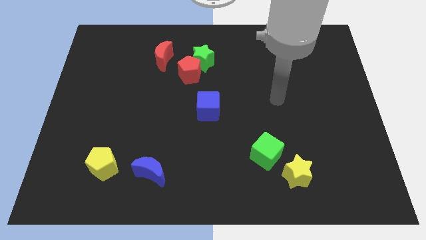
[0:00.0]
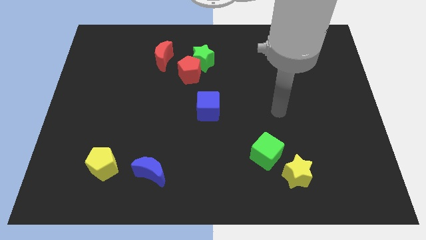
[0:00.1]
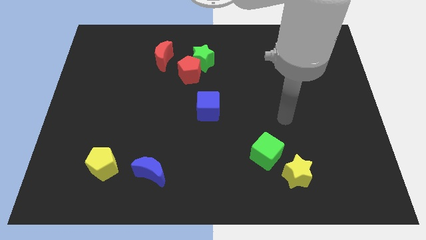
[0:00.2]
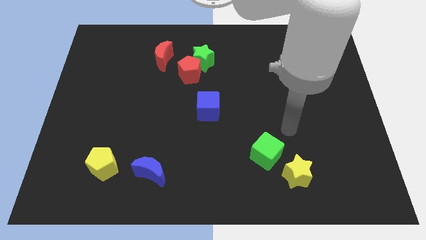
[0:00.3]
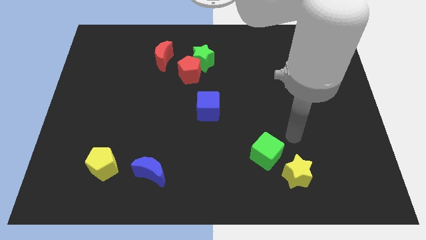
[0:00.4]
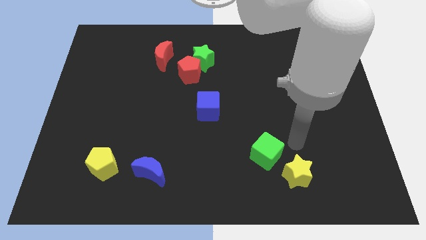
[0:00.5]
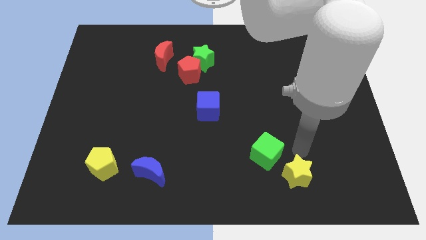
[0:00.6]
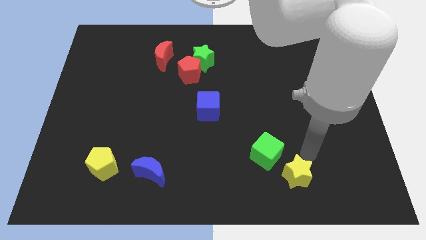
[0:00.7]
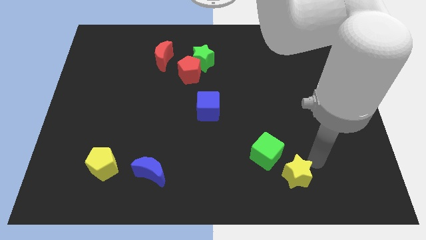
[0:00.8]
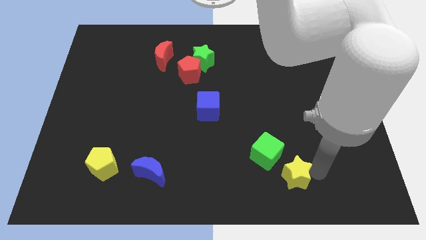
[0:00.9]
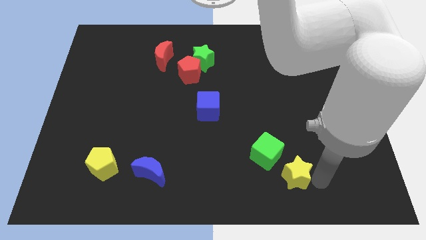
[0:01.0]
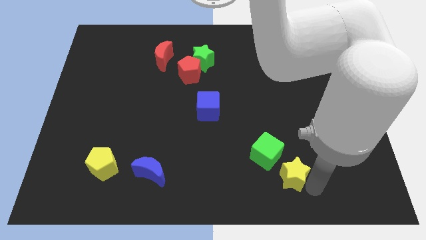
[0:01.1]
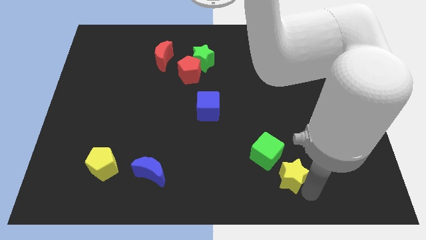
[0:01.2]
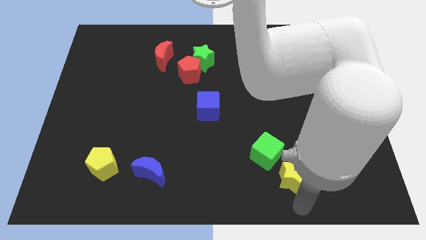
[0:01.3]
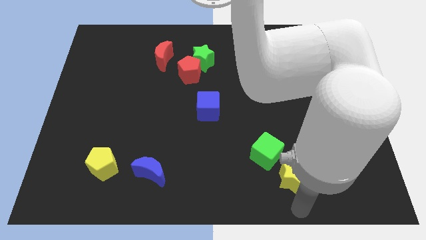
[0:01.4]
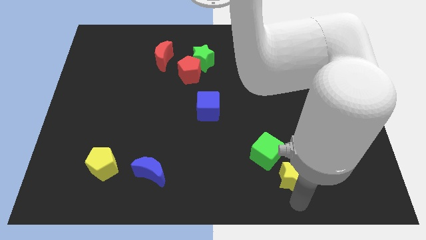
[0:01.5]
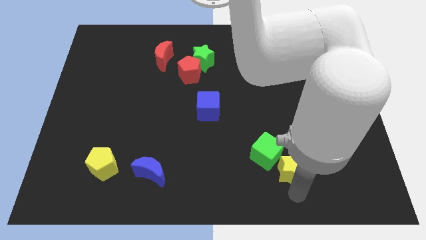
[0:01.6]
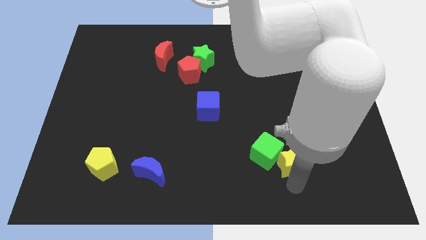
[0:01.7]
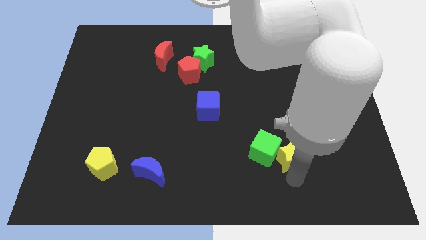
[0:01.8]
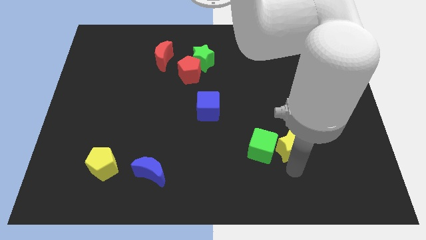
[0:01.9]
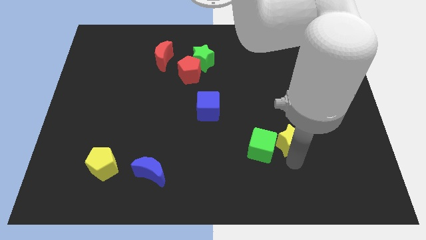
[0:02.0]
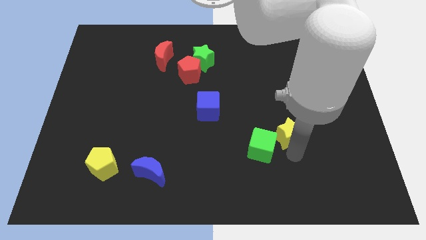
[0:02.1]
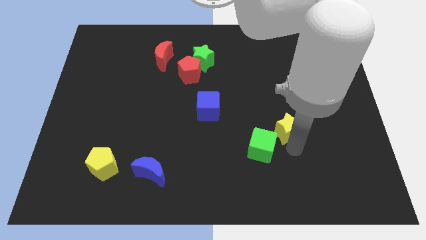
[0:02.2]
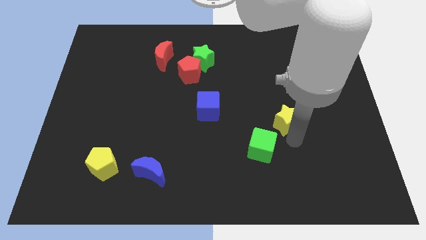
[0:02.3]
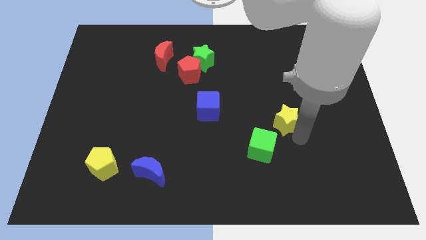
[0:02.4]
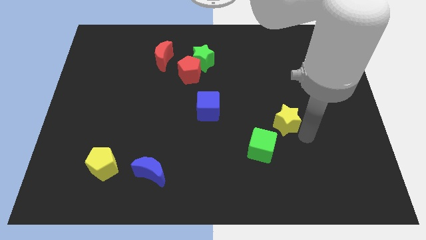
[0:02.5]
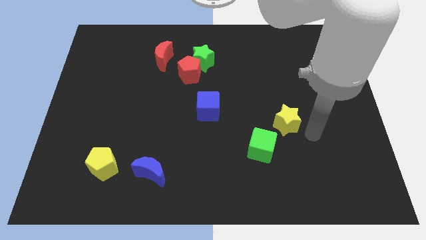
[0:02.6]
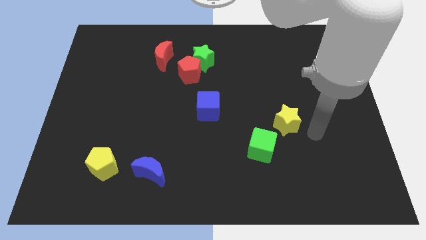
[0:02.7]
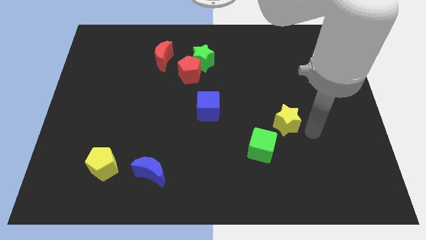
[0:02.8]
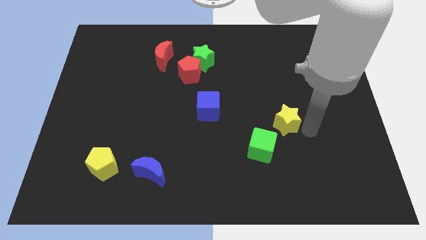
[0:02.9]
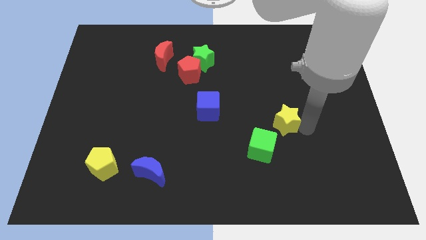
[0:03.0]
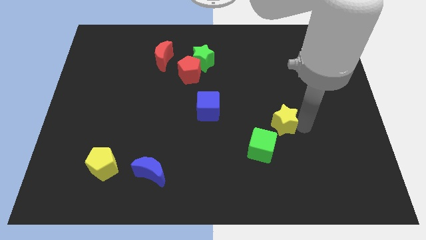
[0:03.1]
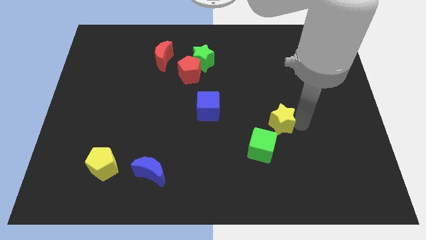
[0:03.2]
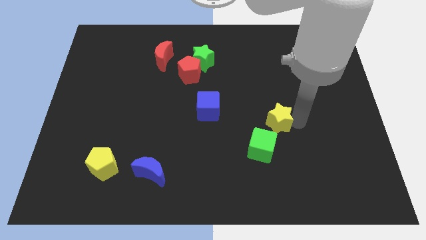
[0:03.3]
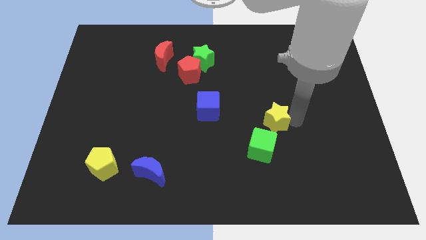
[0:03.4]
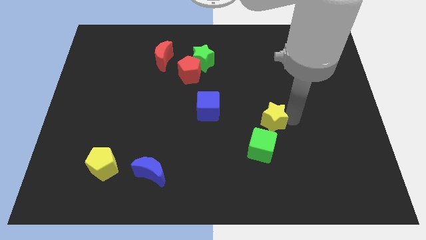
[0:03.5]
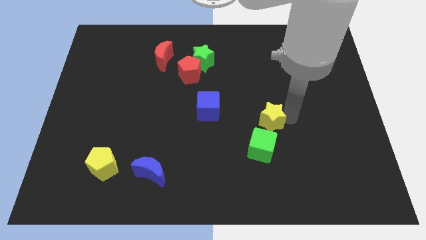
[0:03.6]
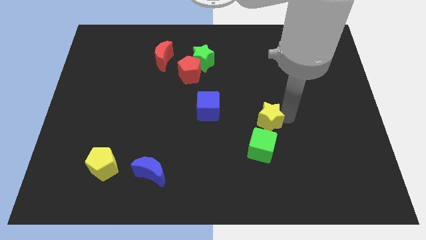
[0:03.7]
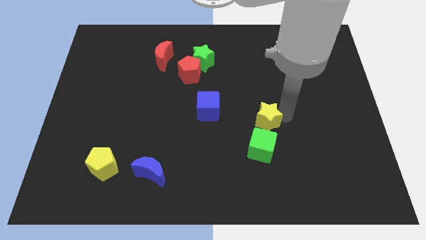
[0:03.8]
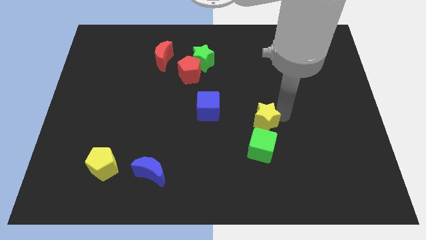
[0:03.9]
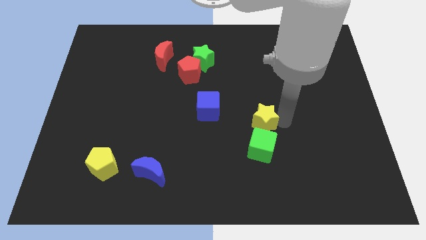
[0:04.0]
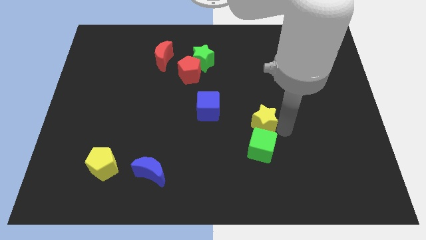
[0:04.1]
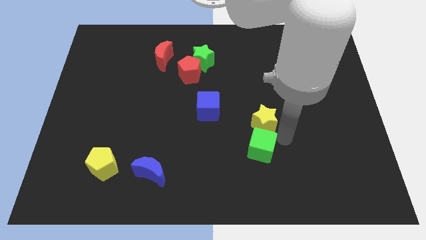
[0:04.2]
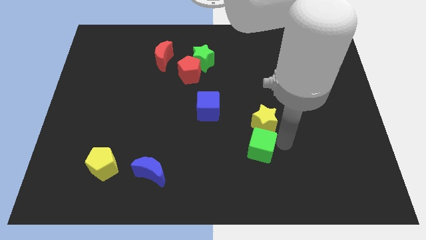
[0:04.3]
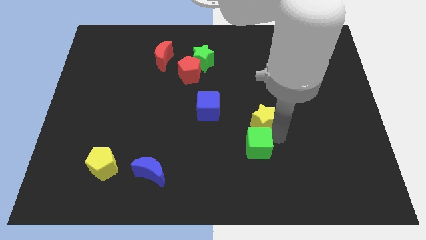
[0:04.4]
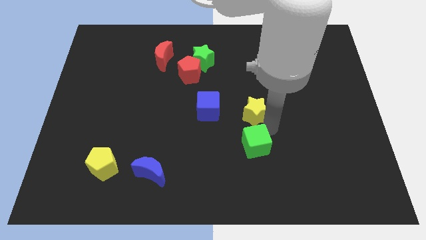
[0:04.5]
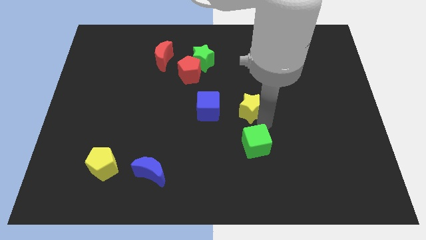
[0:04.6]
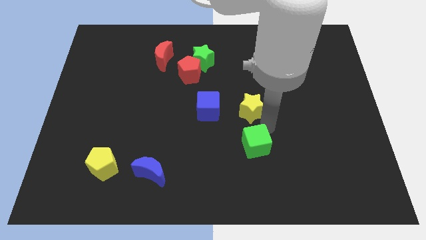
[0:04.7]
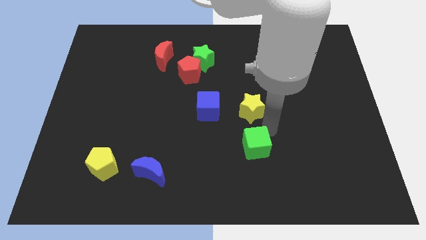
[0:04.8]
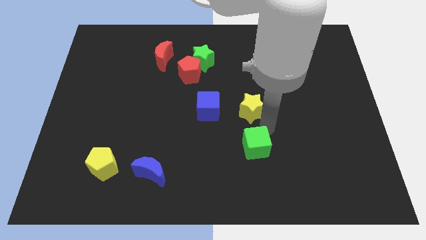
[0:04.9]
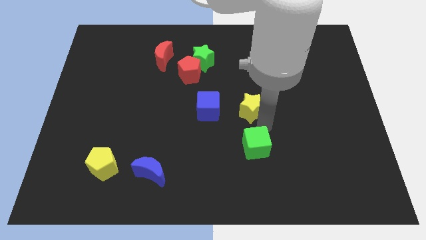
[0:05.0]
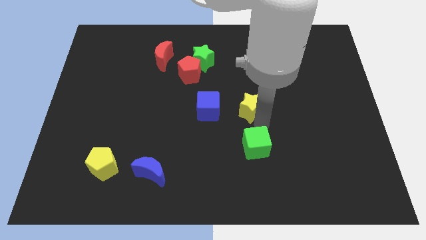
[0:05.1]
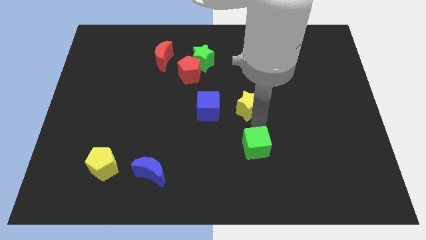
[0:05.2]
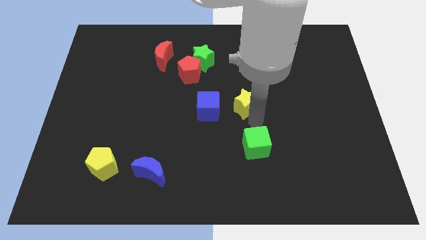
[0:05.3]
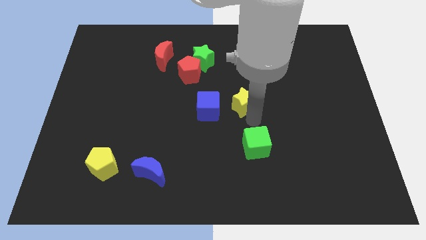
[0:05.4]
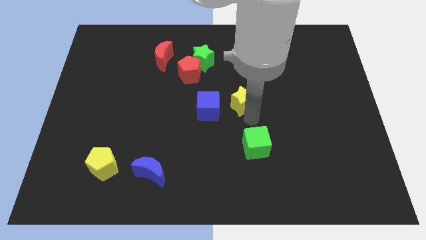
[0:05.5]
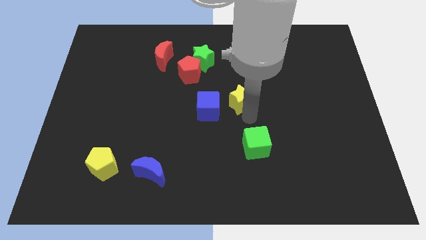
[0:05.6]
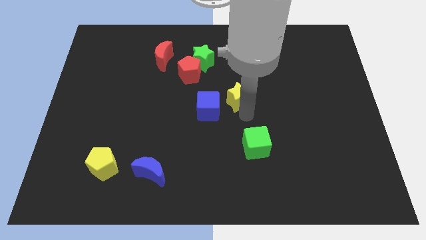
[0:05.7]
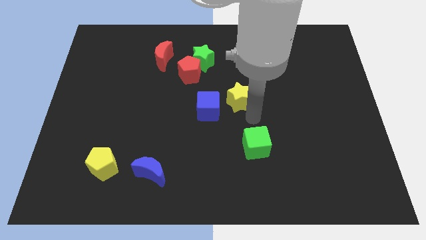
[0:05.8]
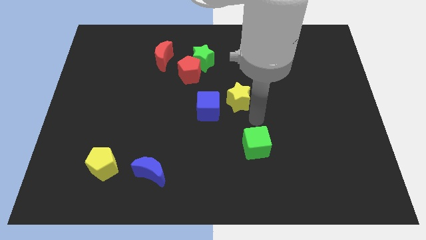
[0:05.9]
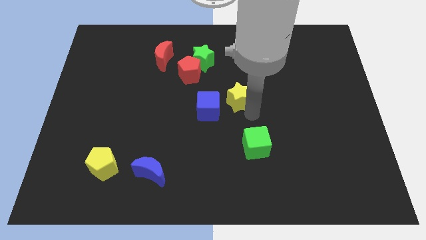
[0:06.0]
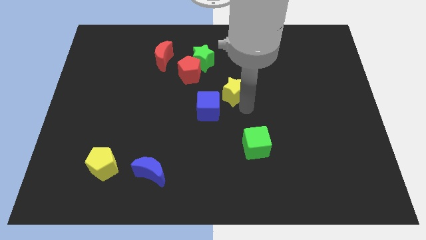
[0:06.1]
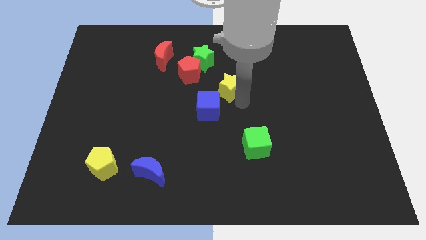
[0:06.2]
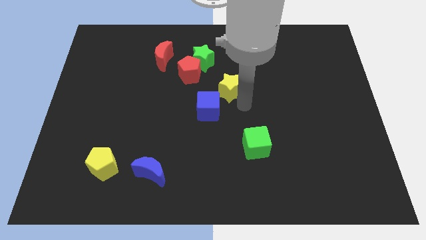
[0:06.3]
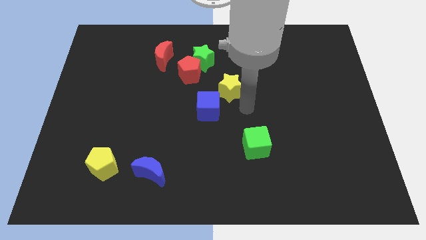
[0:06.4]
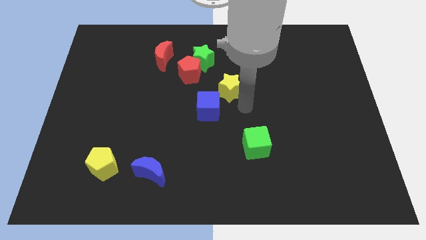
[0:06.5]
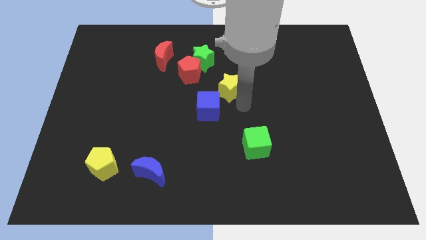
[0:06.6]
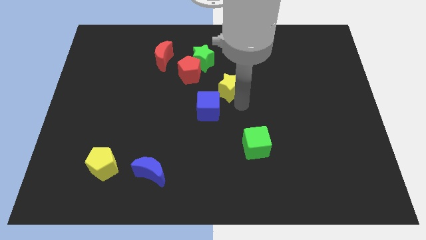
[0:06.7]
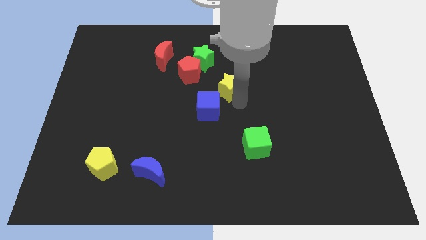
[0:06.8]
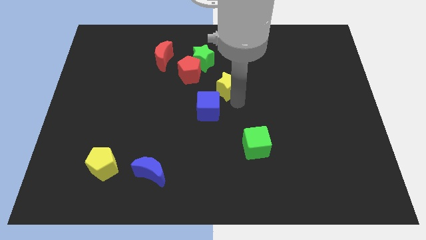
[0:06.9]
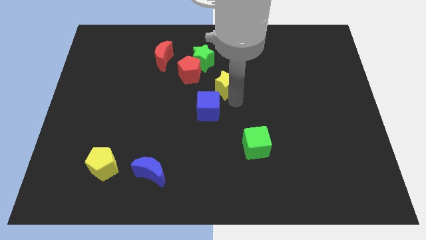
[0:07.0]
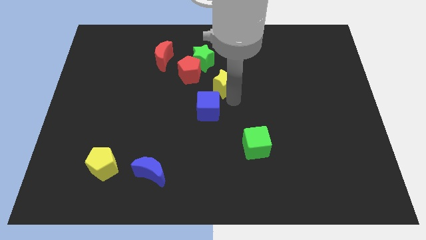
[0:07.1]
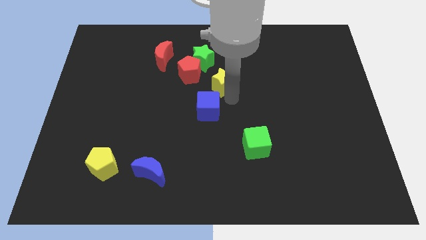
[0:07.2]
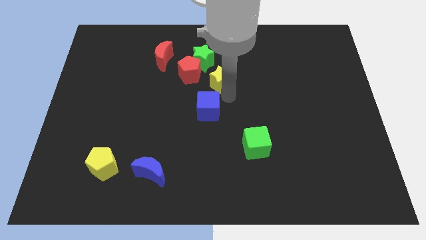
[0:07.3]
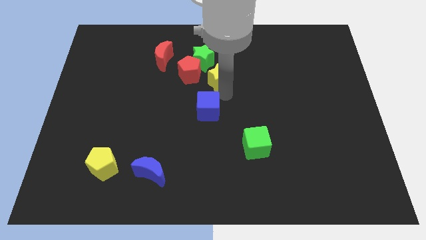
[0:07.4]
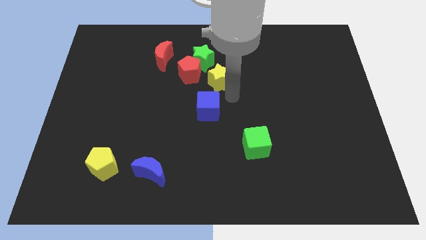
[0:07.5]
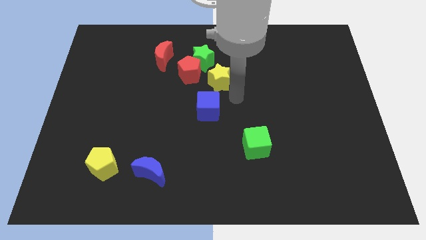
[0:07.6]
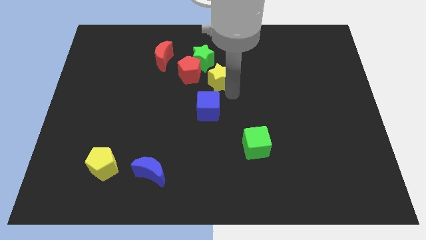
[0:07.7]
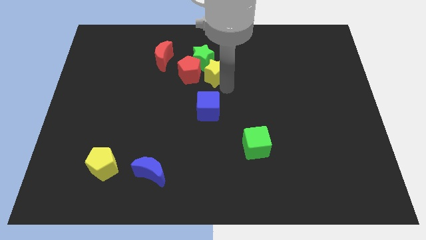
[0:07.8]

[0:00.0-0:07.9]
put the yellow star close to the green star
